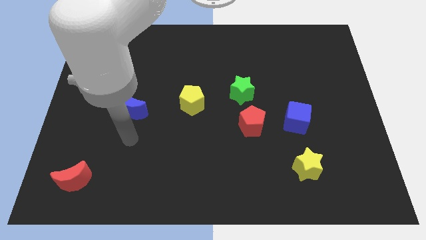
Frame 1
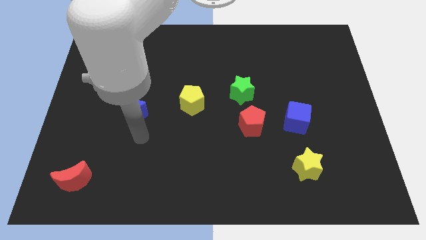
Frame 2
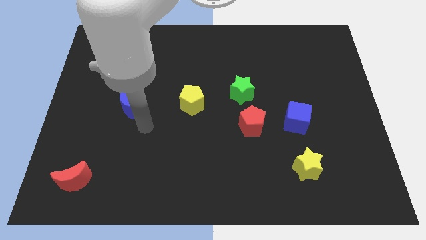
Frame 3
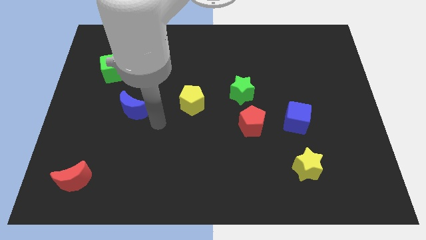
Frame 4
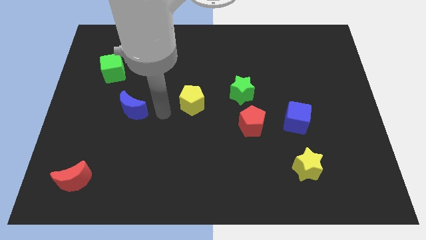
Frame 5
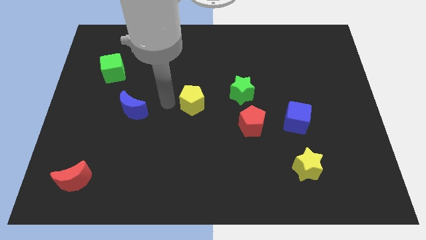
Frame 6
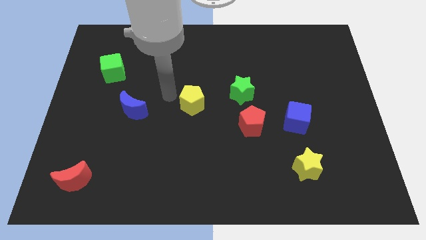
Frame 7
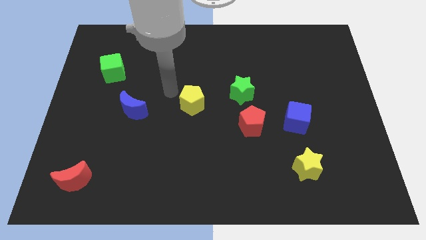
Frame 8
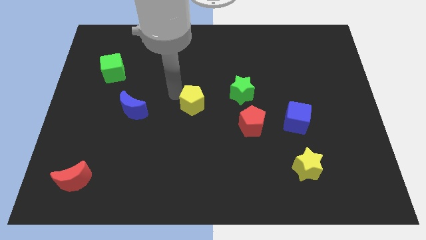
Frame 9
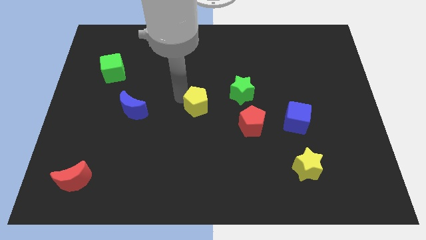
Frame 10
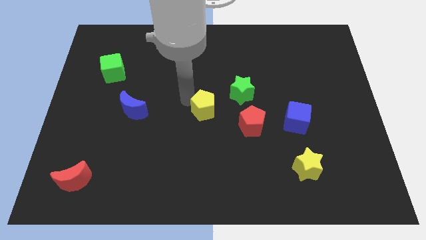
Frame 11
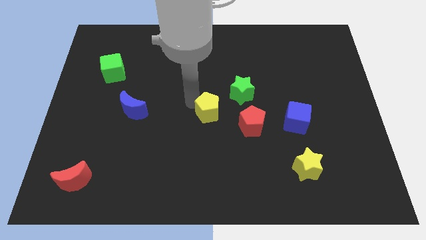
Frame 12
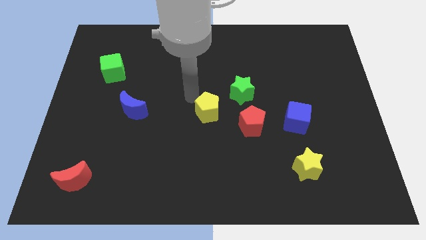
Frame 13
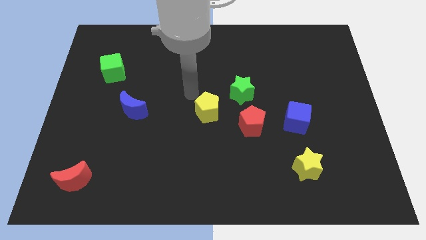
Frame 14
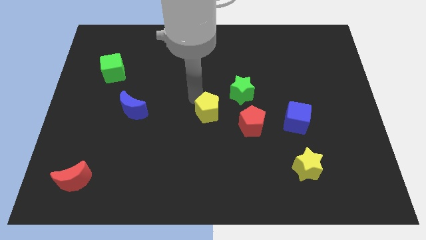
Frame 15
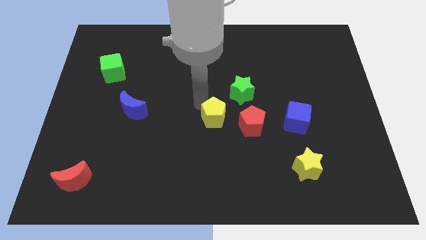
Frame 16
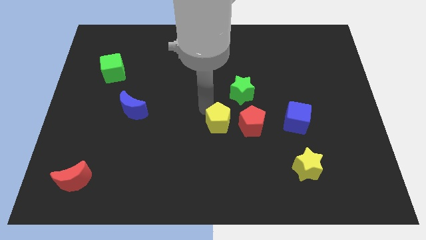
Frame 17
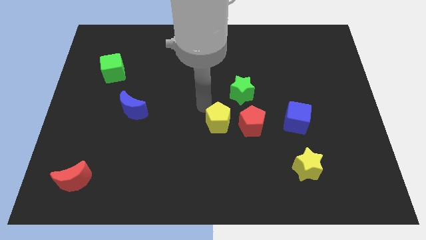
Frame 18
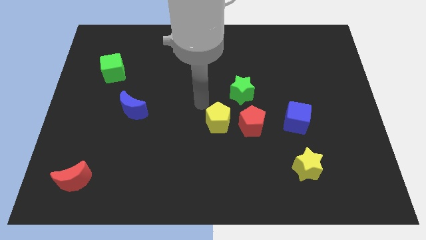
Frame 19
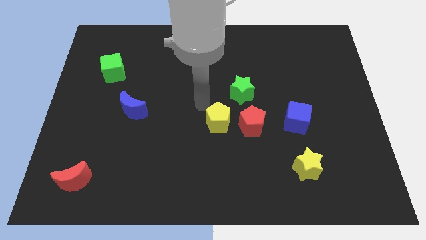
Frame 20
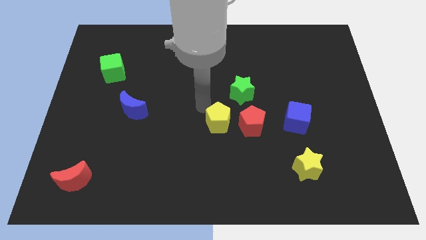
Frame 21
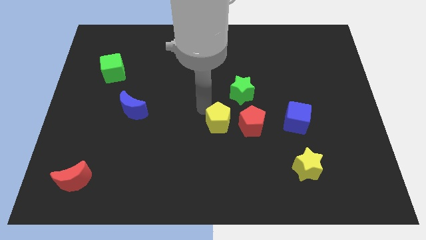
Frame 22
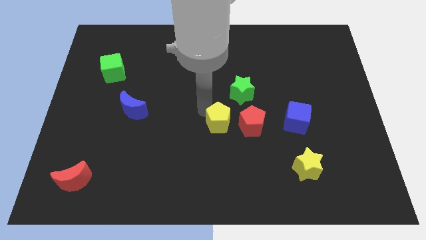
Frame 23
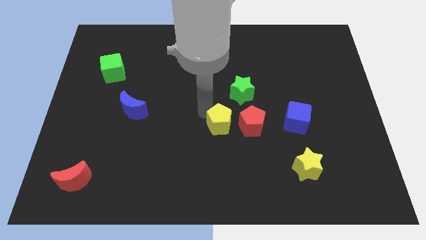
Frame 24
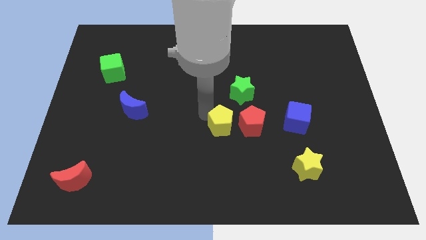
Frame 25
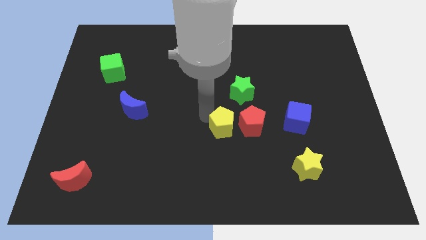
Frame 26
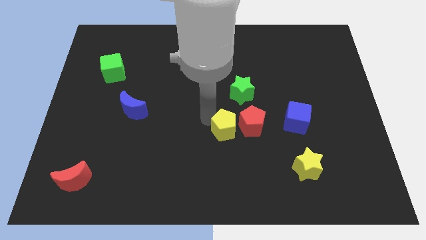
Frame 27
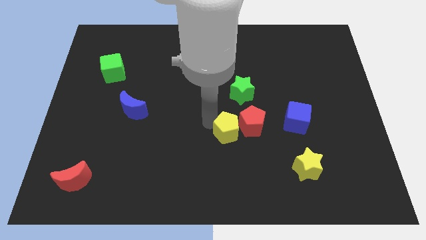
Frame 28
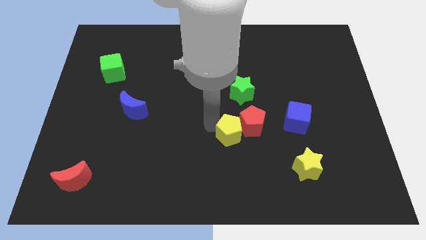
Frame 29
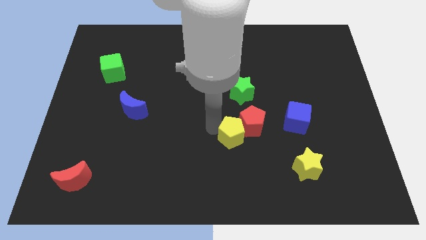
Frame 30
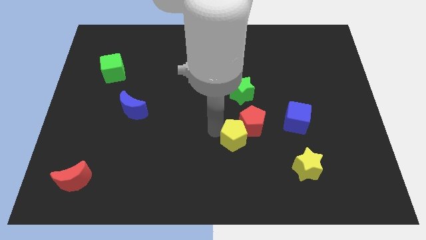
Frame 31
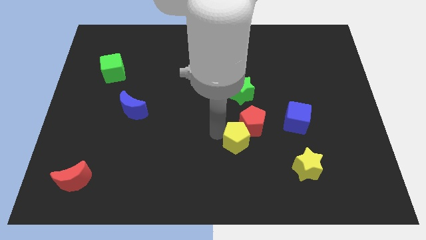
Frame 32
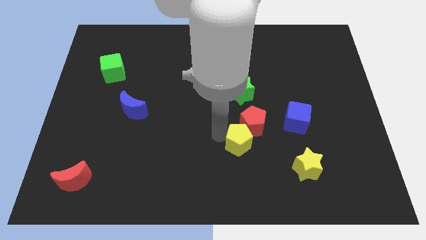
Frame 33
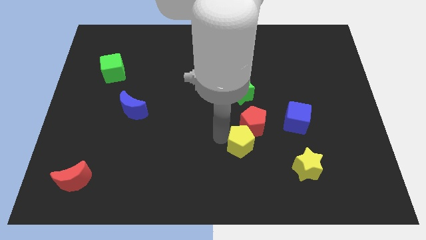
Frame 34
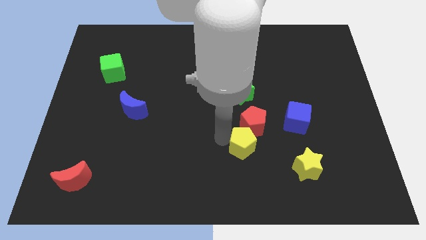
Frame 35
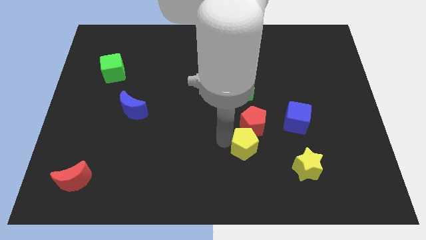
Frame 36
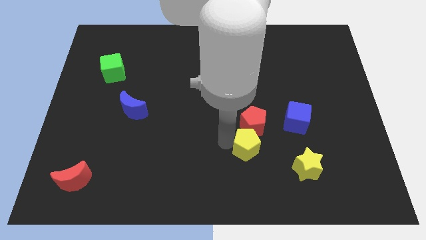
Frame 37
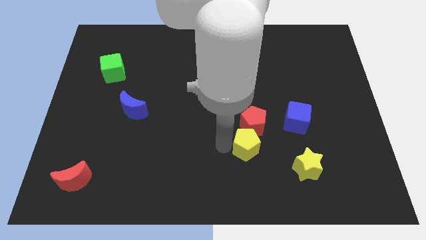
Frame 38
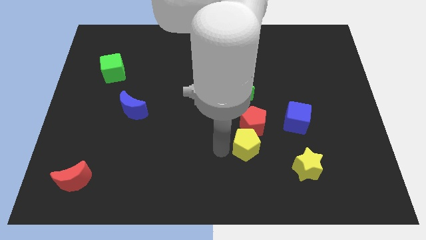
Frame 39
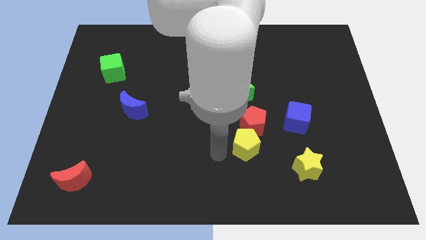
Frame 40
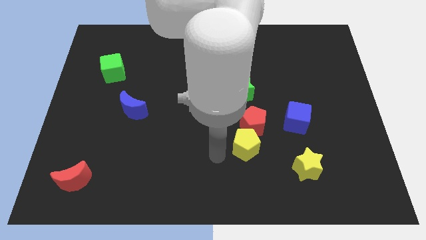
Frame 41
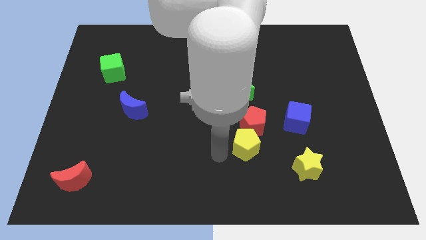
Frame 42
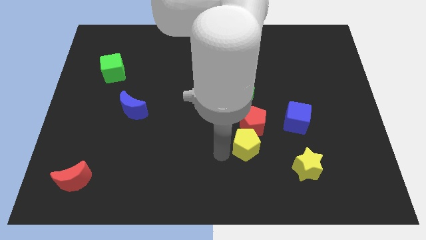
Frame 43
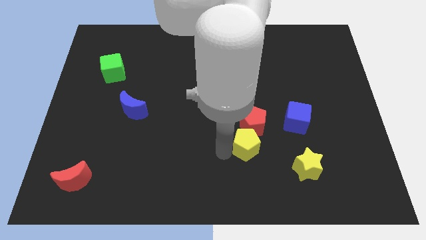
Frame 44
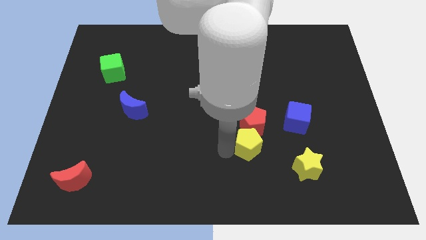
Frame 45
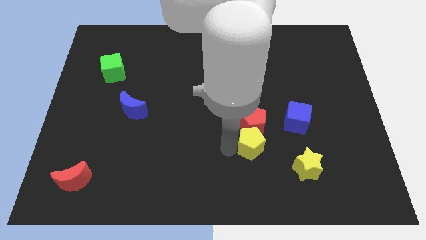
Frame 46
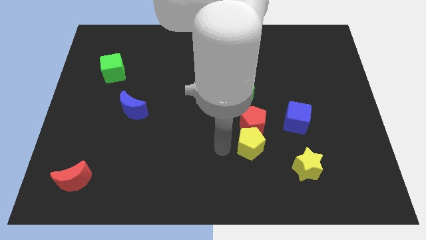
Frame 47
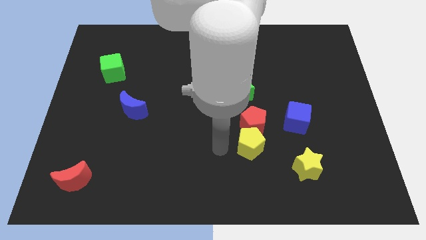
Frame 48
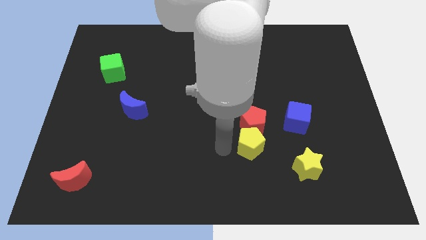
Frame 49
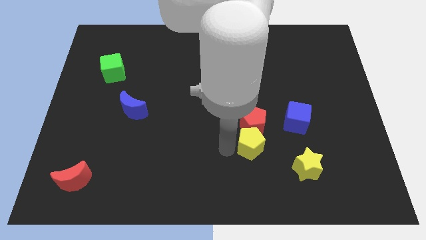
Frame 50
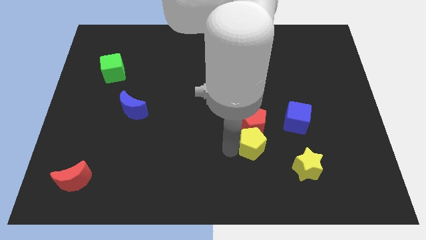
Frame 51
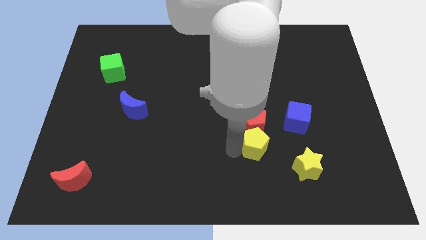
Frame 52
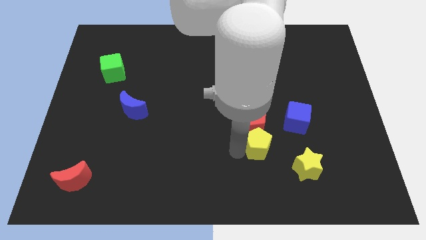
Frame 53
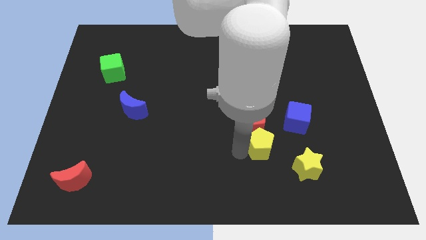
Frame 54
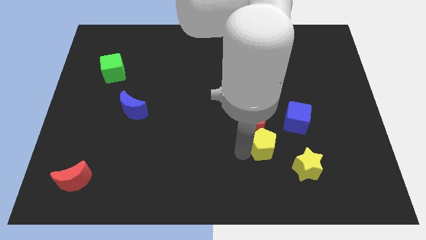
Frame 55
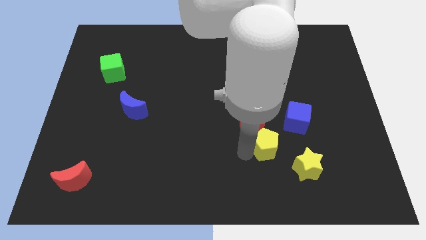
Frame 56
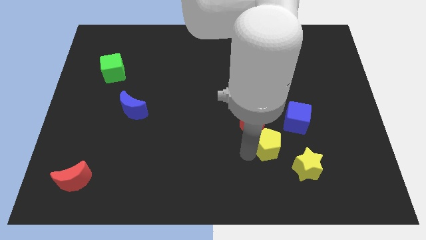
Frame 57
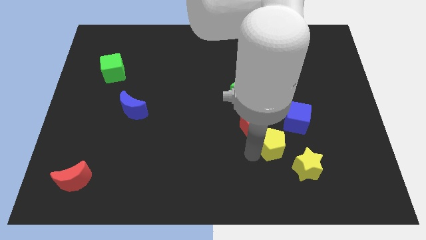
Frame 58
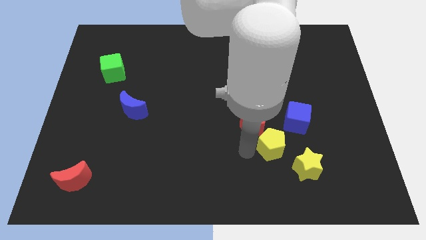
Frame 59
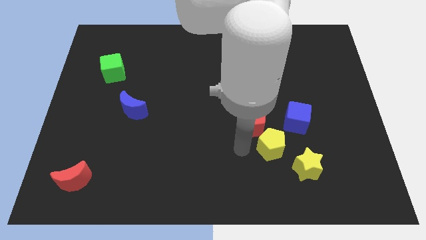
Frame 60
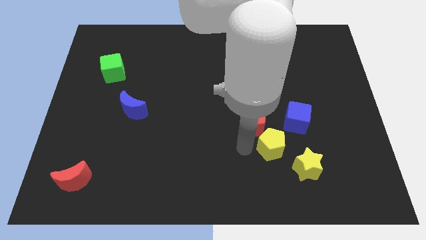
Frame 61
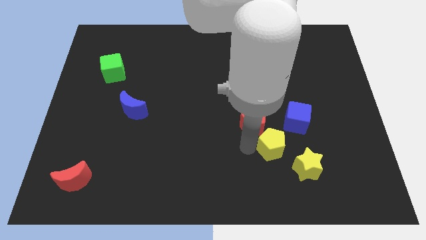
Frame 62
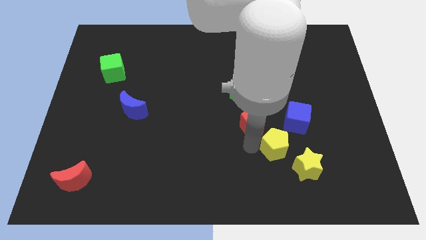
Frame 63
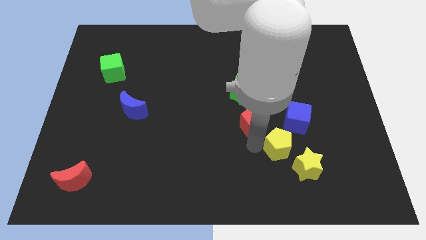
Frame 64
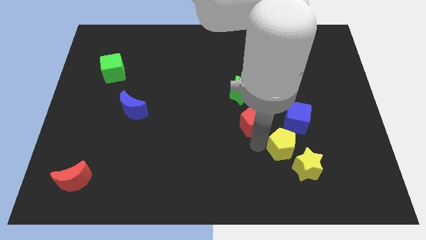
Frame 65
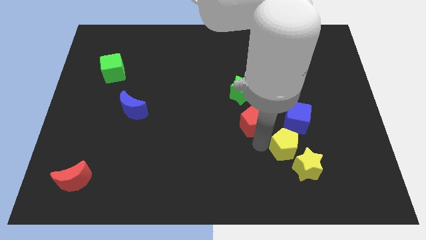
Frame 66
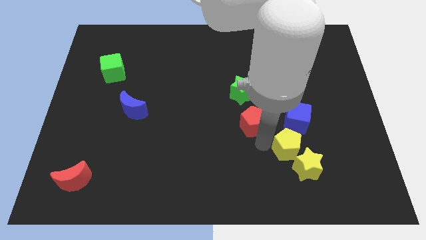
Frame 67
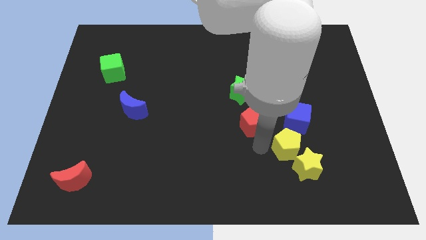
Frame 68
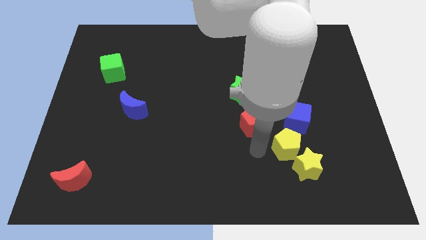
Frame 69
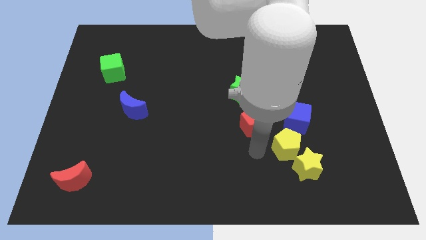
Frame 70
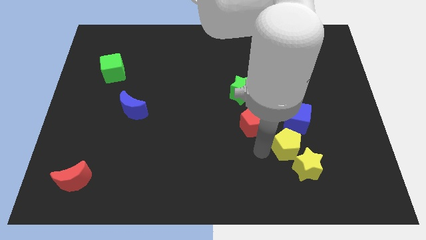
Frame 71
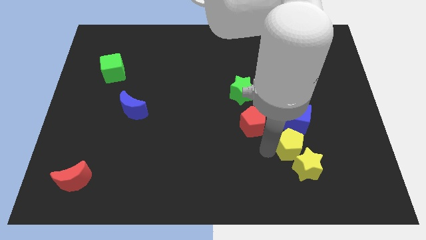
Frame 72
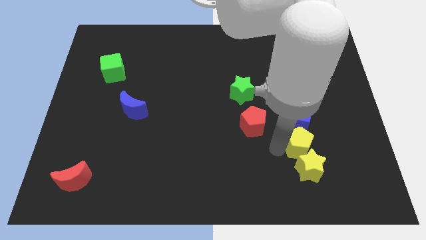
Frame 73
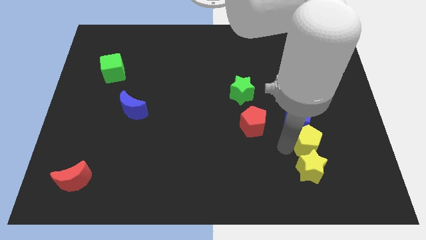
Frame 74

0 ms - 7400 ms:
push the yellow pentagon to the top right side of the yellow star
